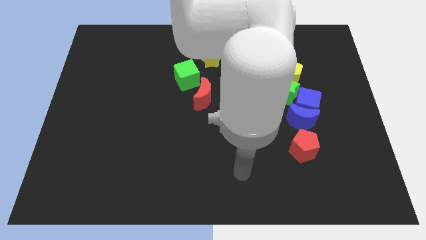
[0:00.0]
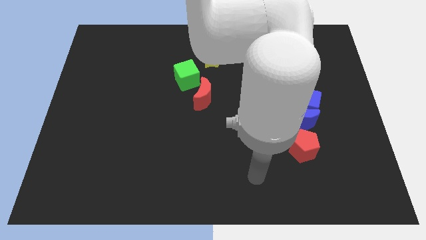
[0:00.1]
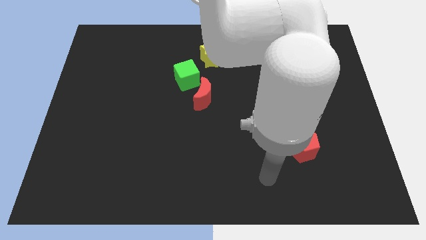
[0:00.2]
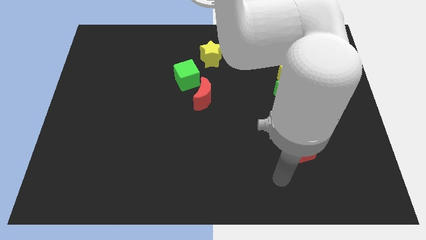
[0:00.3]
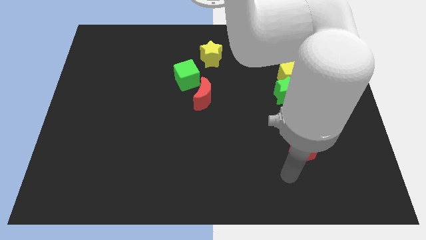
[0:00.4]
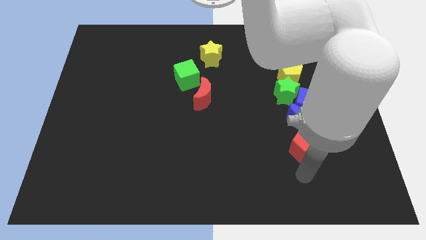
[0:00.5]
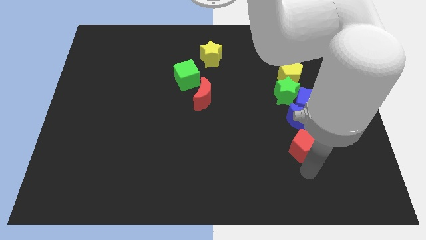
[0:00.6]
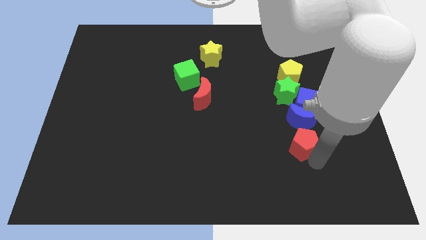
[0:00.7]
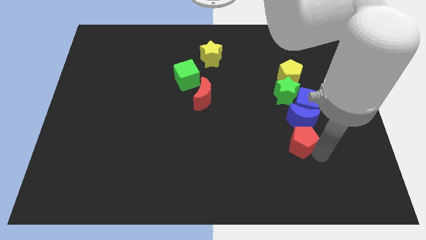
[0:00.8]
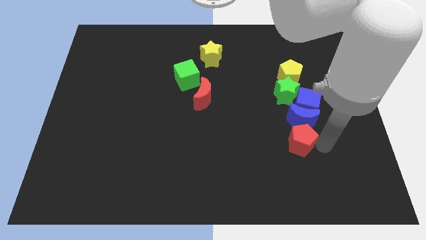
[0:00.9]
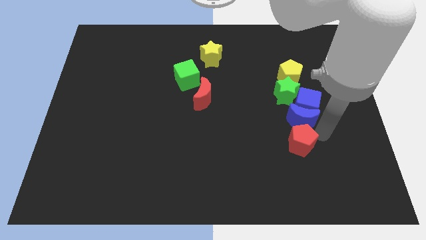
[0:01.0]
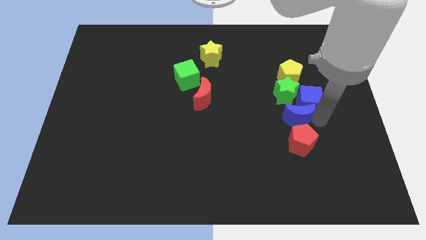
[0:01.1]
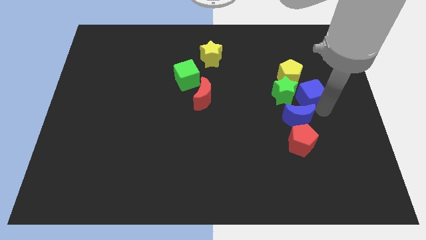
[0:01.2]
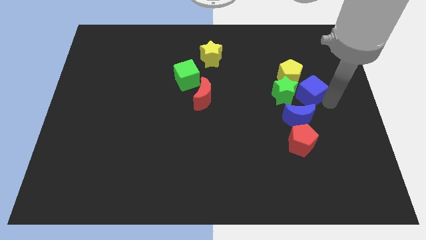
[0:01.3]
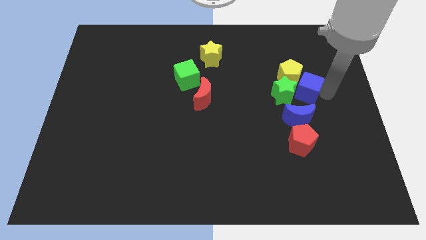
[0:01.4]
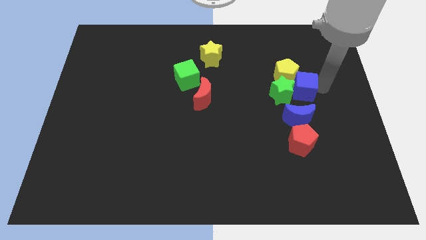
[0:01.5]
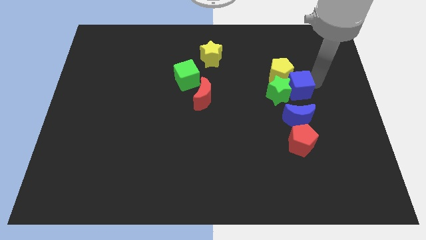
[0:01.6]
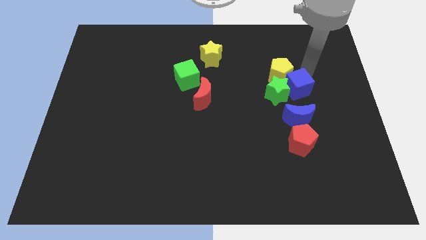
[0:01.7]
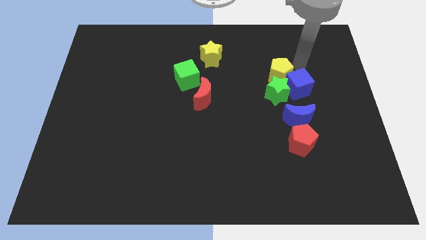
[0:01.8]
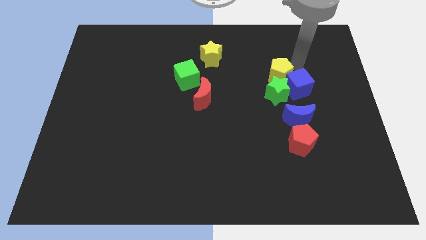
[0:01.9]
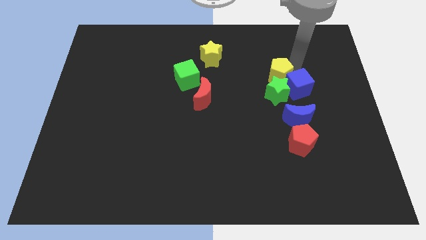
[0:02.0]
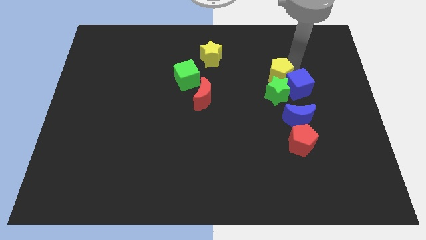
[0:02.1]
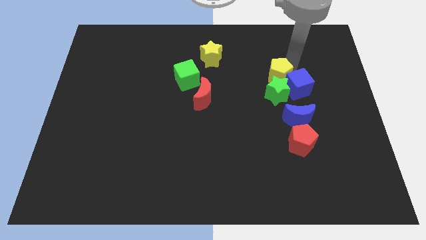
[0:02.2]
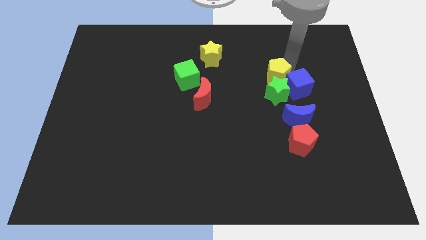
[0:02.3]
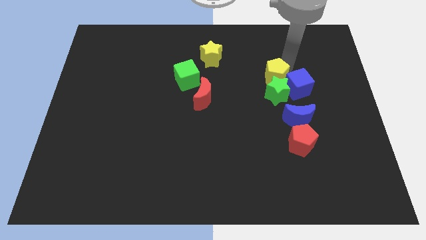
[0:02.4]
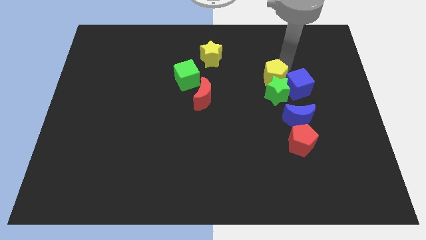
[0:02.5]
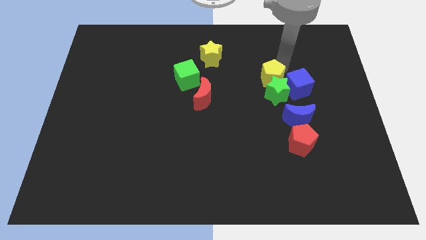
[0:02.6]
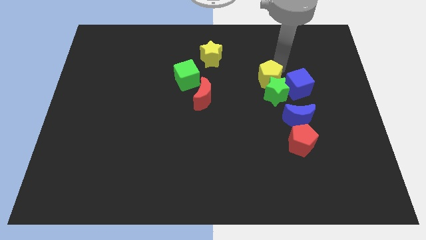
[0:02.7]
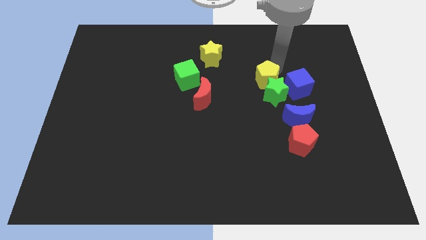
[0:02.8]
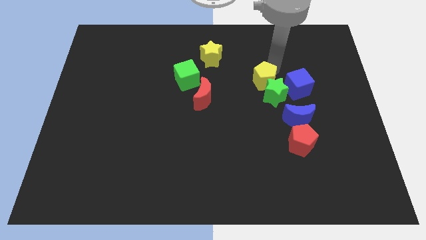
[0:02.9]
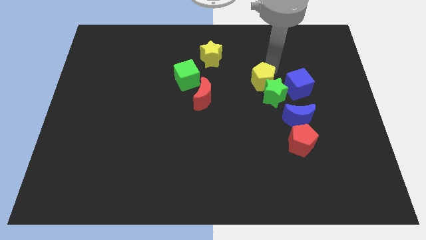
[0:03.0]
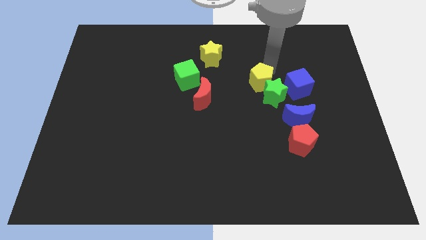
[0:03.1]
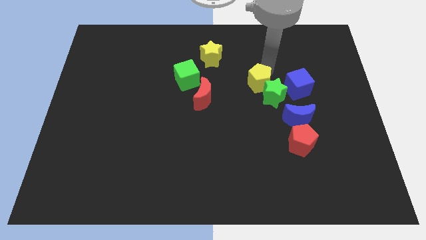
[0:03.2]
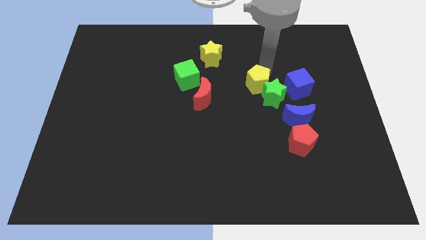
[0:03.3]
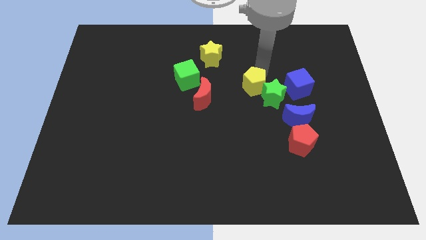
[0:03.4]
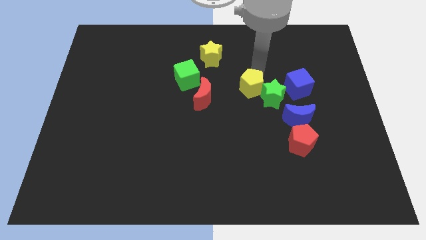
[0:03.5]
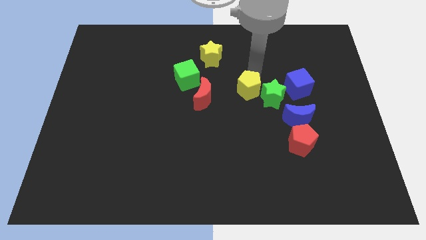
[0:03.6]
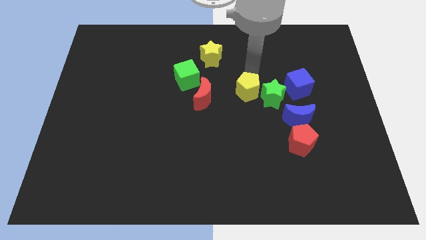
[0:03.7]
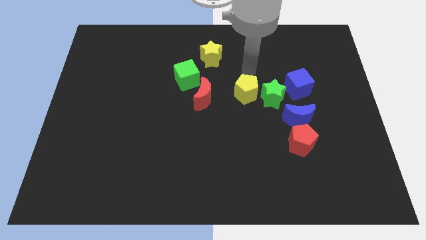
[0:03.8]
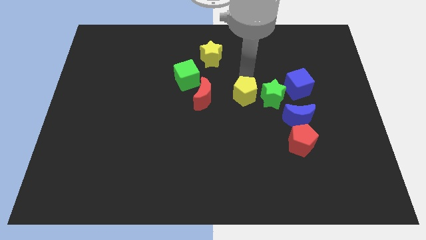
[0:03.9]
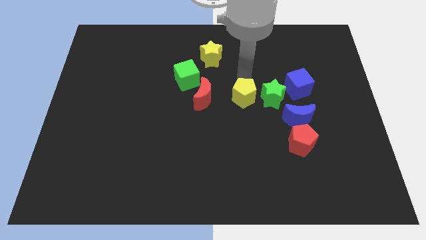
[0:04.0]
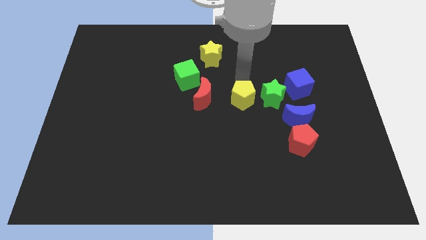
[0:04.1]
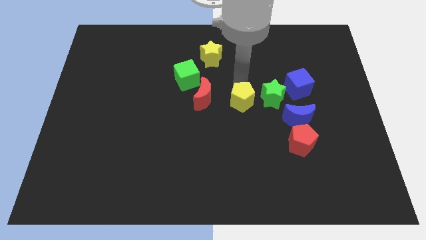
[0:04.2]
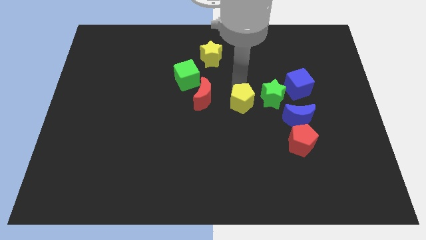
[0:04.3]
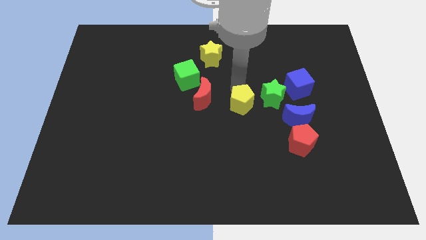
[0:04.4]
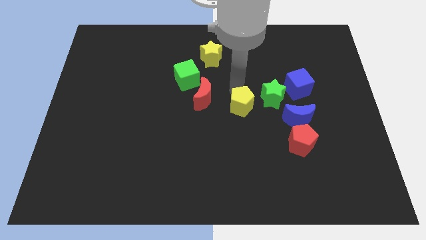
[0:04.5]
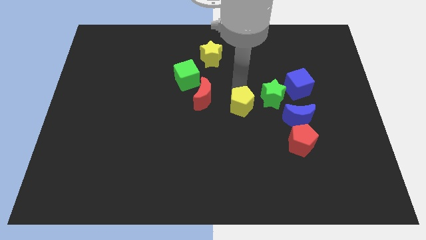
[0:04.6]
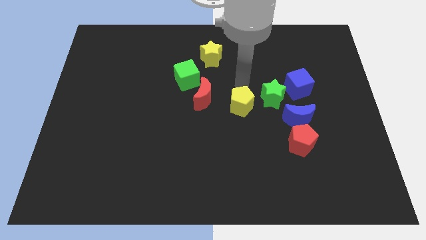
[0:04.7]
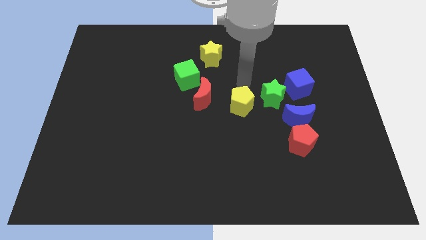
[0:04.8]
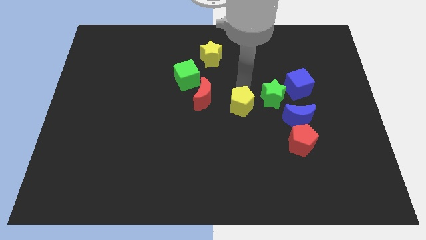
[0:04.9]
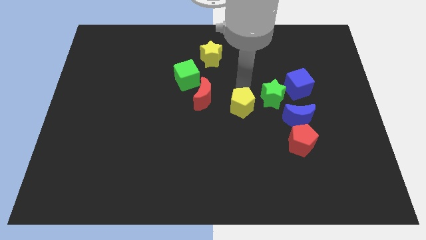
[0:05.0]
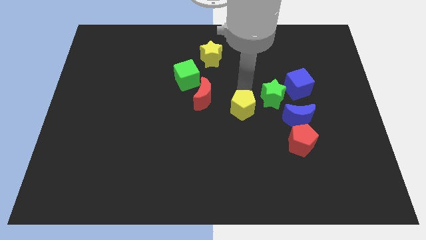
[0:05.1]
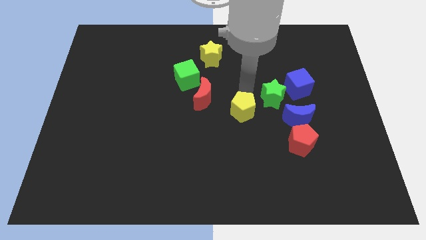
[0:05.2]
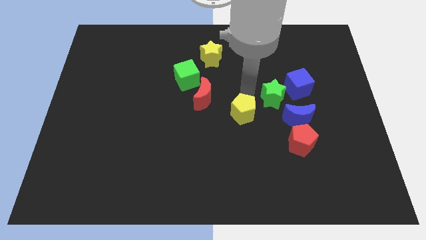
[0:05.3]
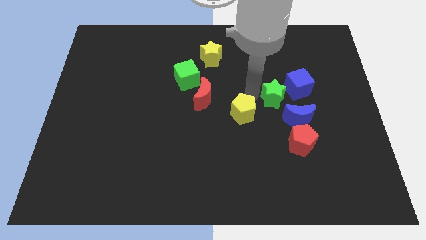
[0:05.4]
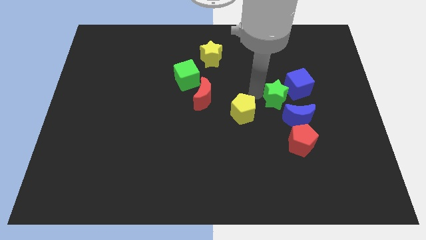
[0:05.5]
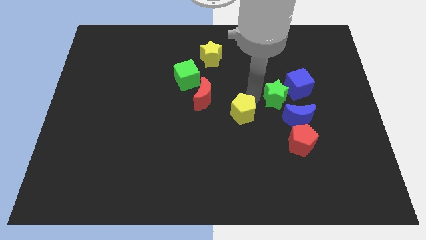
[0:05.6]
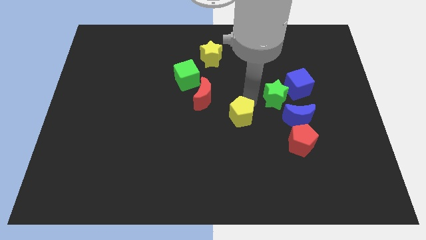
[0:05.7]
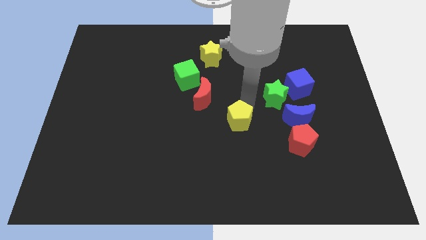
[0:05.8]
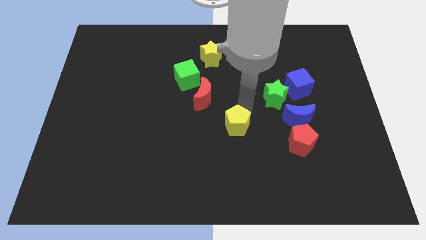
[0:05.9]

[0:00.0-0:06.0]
push the yellow pentagon downwards and left diagonally

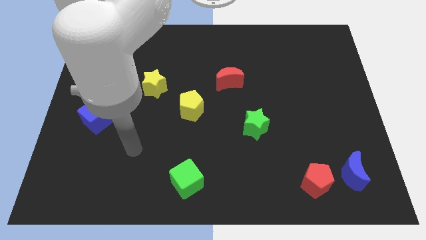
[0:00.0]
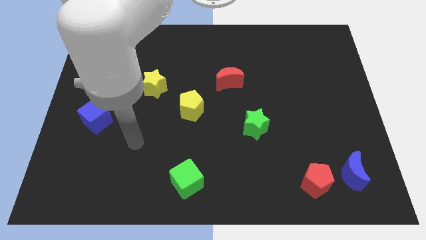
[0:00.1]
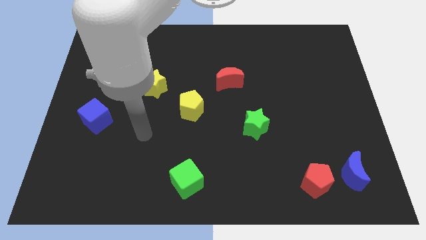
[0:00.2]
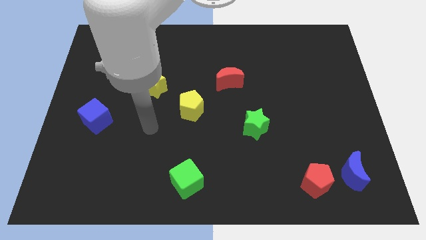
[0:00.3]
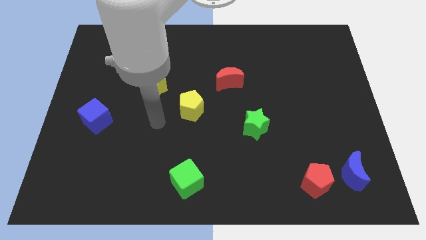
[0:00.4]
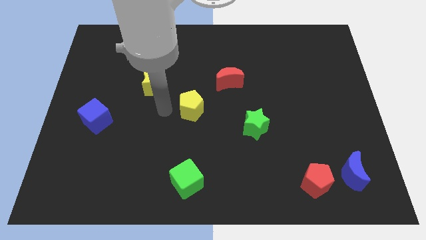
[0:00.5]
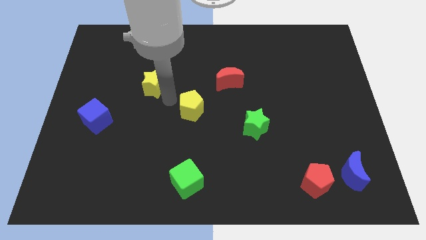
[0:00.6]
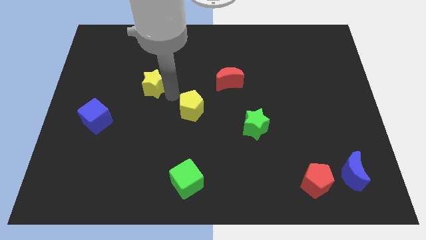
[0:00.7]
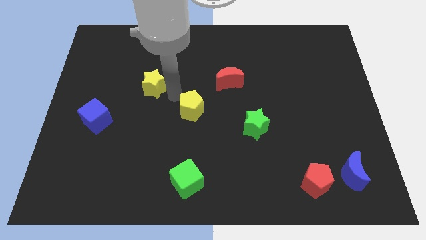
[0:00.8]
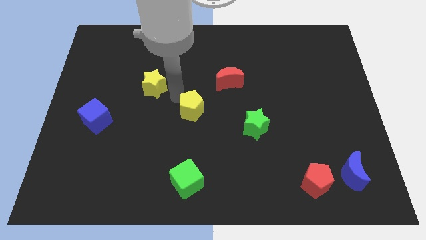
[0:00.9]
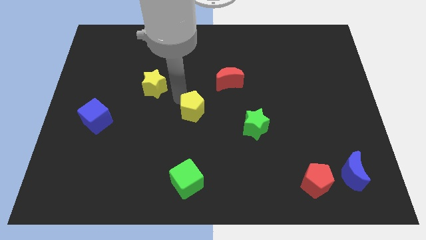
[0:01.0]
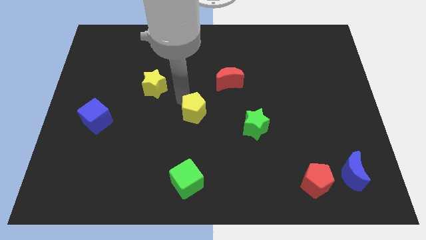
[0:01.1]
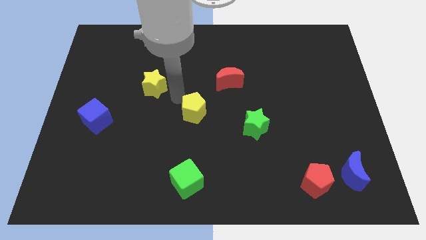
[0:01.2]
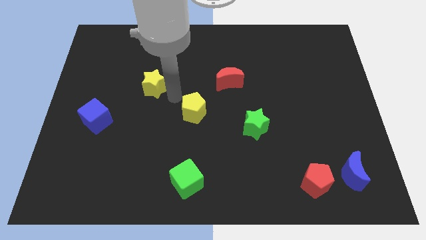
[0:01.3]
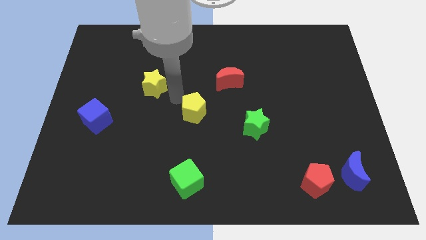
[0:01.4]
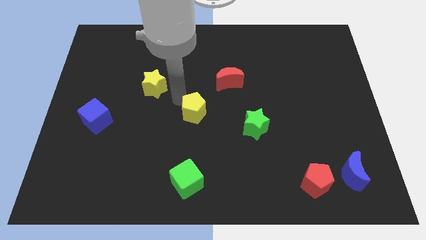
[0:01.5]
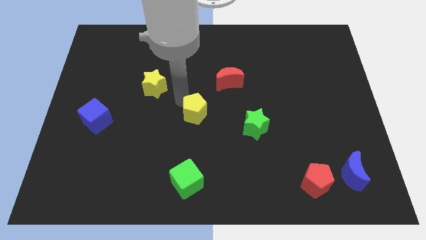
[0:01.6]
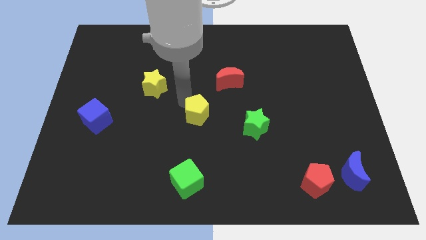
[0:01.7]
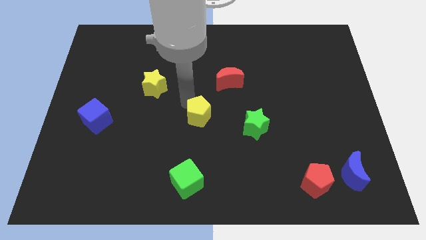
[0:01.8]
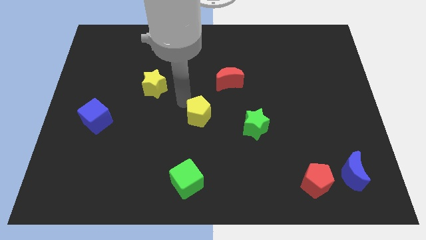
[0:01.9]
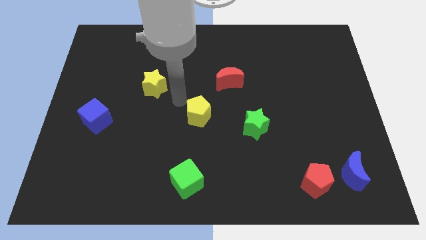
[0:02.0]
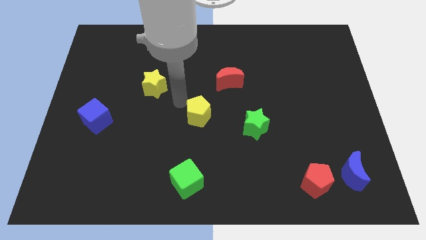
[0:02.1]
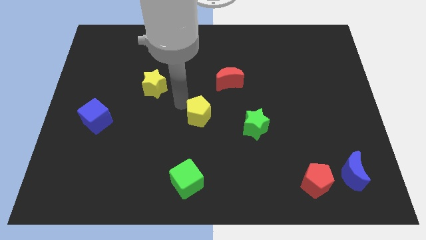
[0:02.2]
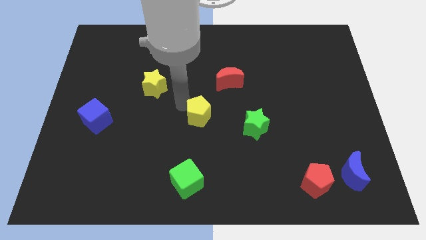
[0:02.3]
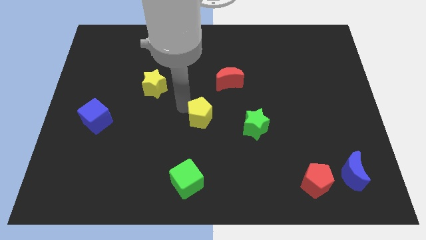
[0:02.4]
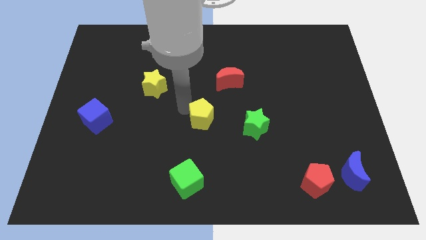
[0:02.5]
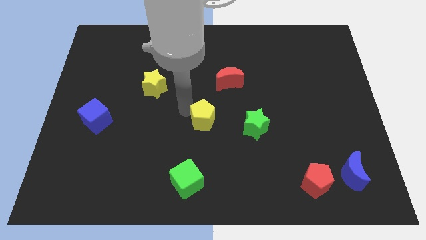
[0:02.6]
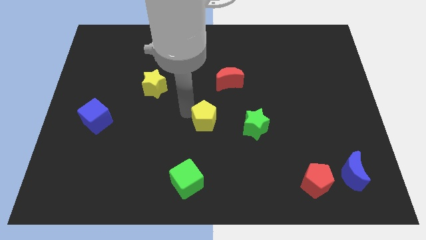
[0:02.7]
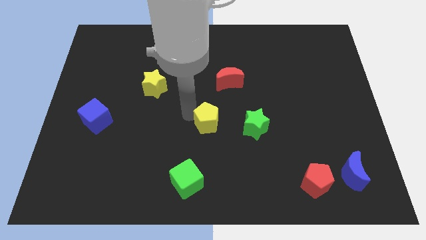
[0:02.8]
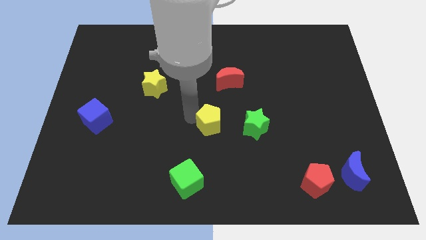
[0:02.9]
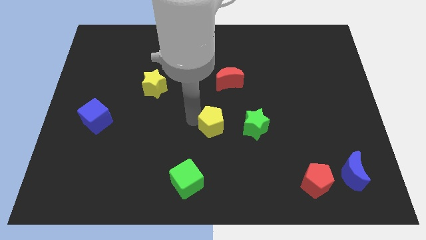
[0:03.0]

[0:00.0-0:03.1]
push the yellow pentagon a bit down and right diagonally
